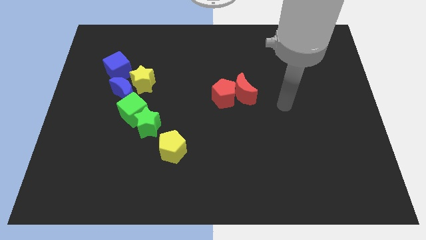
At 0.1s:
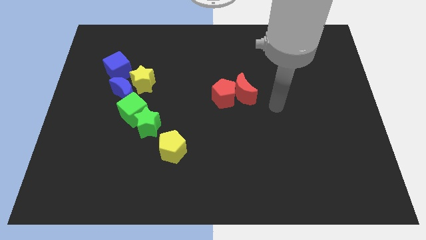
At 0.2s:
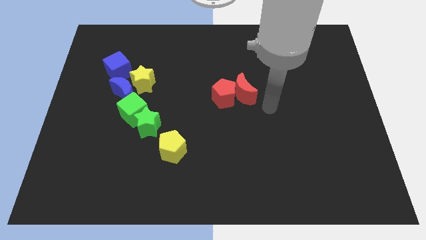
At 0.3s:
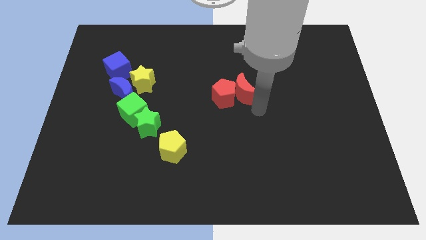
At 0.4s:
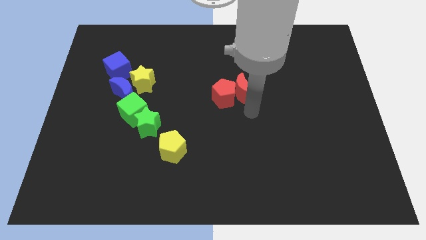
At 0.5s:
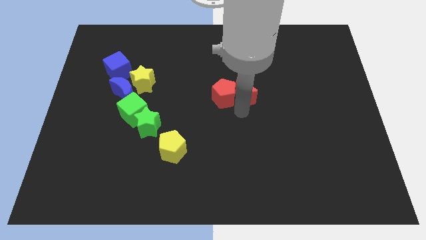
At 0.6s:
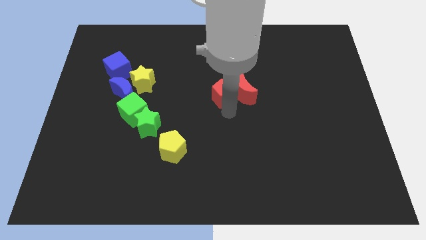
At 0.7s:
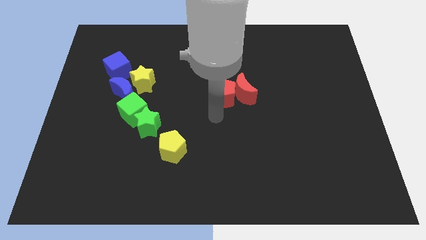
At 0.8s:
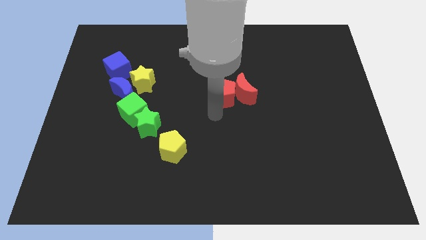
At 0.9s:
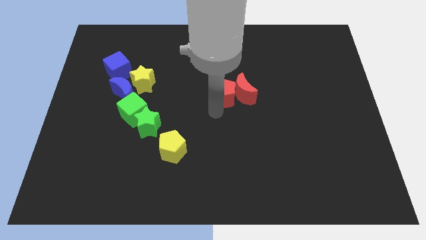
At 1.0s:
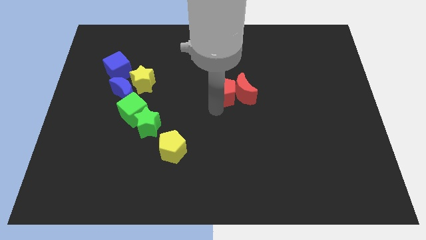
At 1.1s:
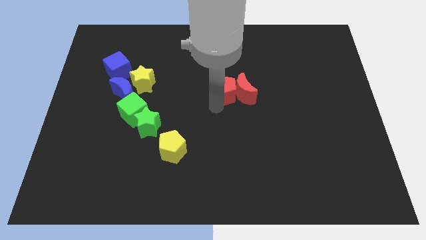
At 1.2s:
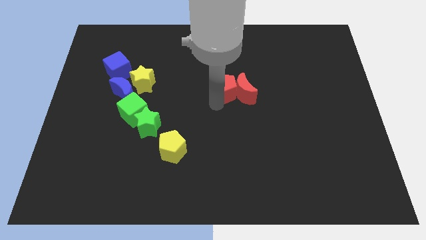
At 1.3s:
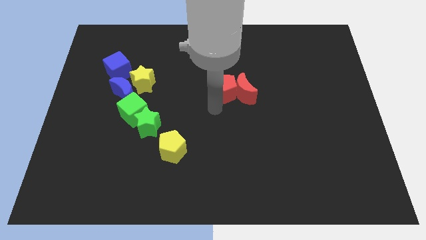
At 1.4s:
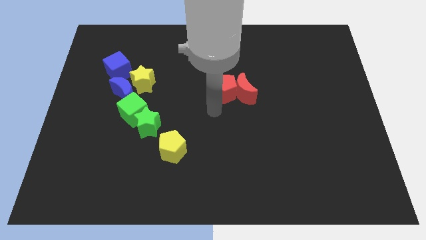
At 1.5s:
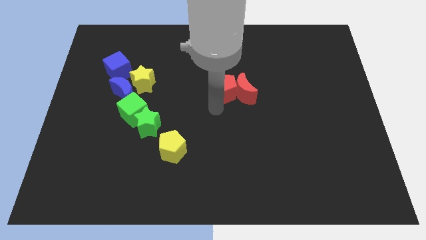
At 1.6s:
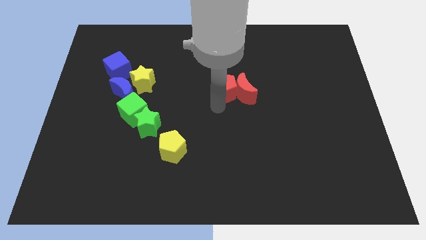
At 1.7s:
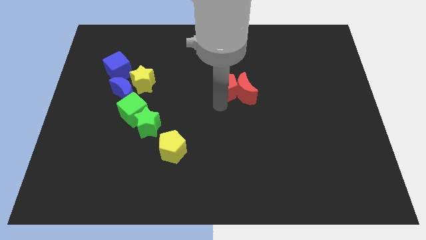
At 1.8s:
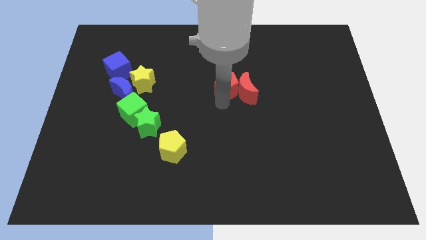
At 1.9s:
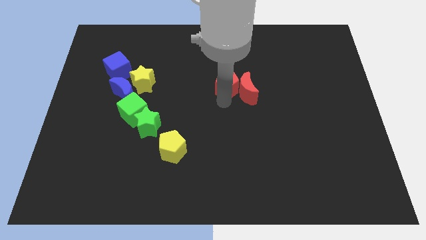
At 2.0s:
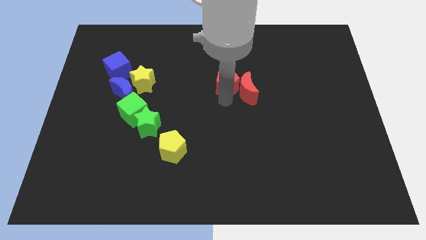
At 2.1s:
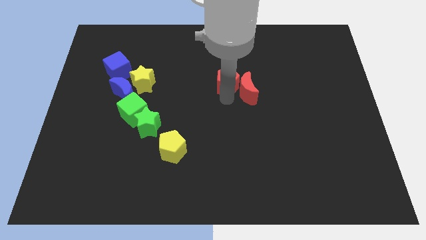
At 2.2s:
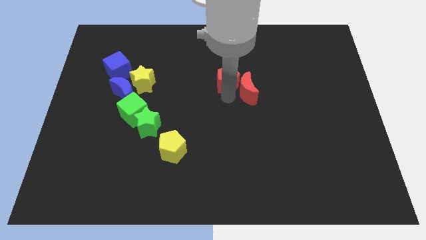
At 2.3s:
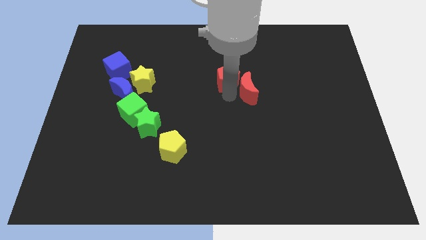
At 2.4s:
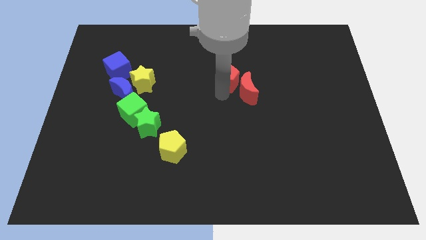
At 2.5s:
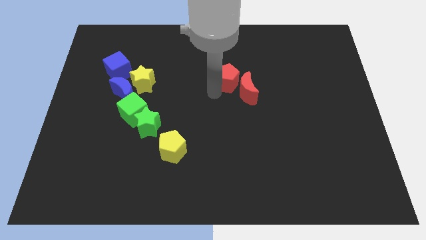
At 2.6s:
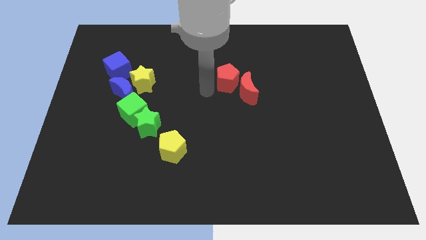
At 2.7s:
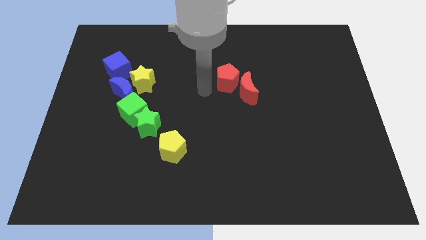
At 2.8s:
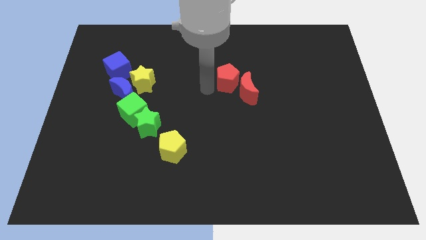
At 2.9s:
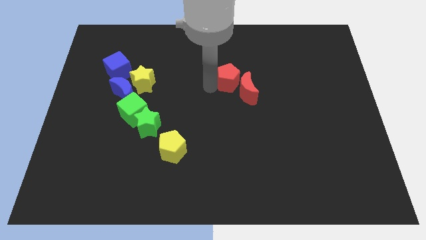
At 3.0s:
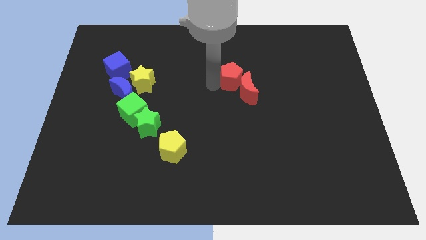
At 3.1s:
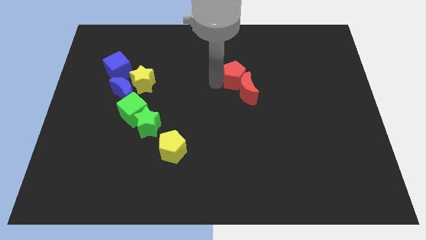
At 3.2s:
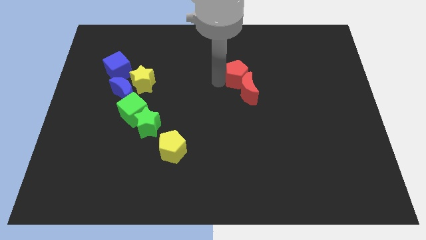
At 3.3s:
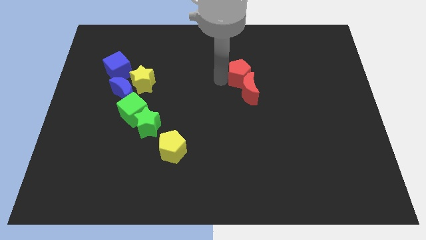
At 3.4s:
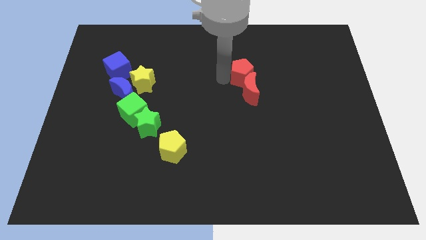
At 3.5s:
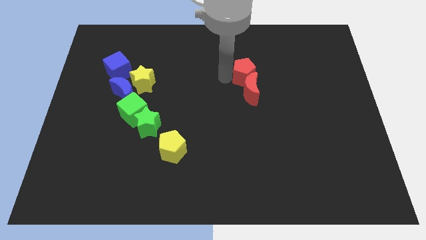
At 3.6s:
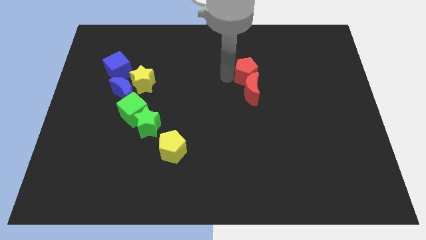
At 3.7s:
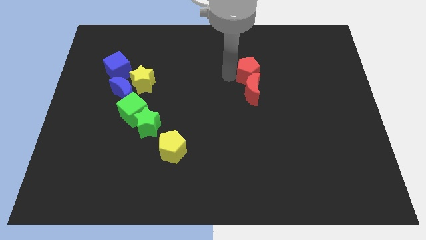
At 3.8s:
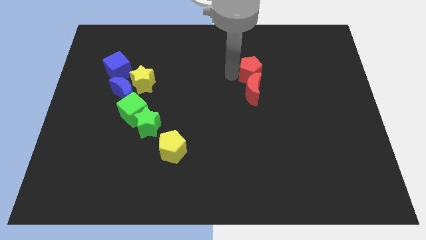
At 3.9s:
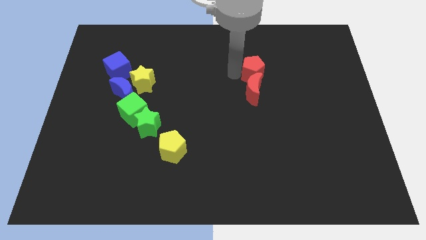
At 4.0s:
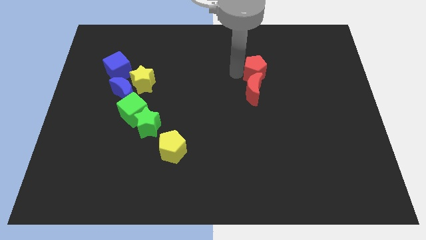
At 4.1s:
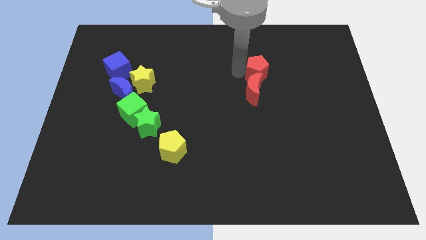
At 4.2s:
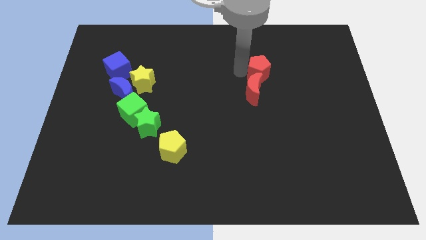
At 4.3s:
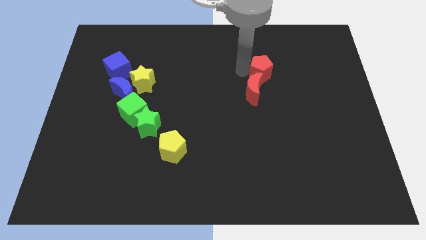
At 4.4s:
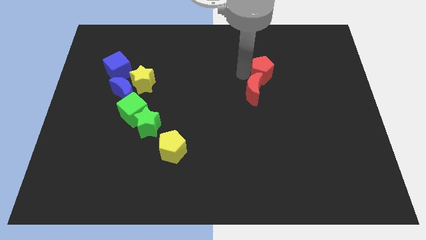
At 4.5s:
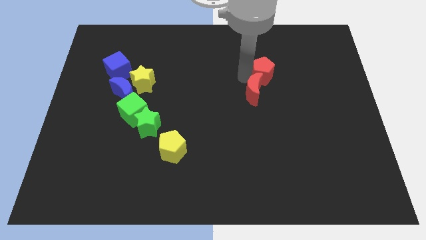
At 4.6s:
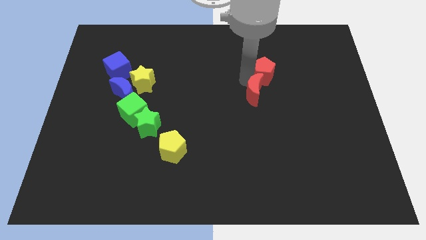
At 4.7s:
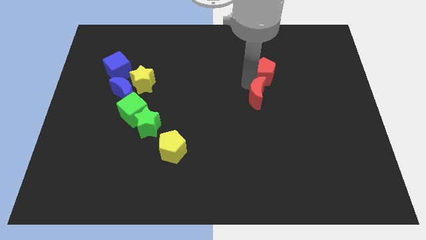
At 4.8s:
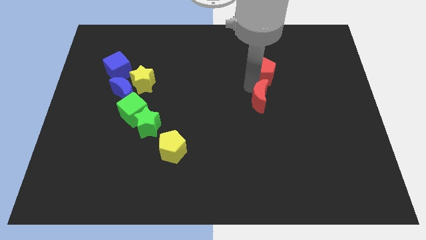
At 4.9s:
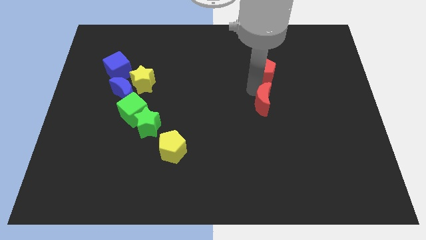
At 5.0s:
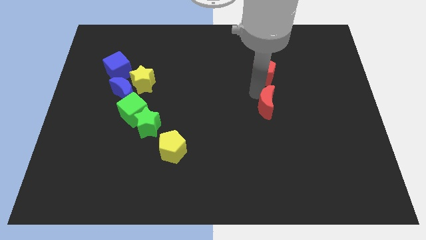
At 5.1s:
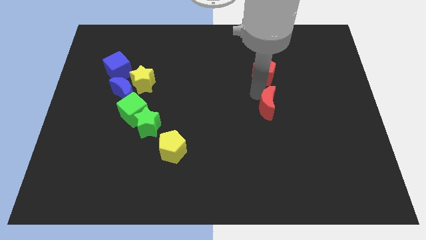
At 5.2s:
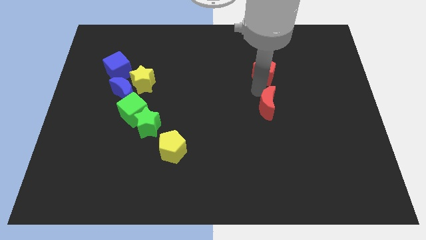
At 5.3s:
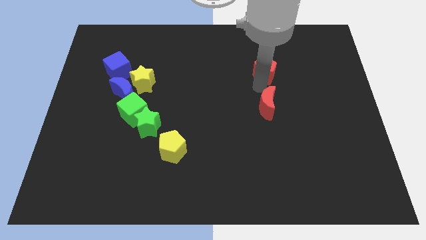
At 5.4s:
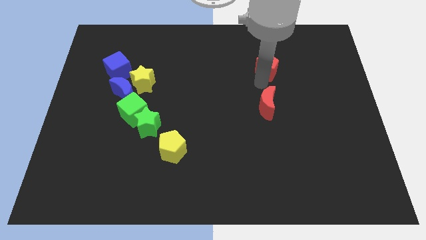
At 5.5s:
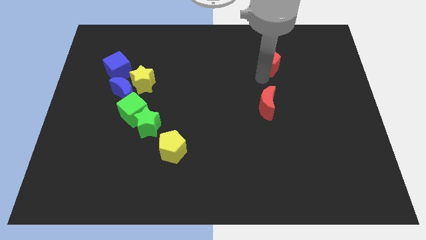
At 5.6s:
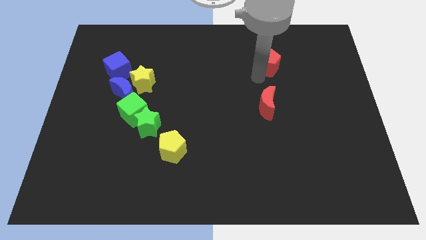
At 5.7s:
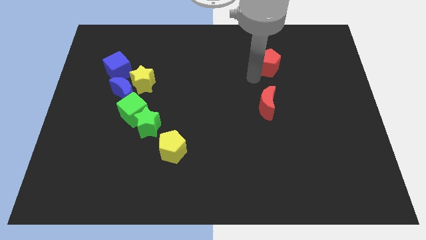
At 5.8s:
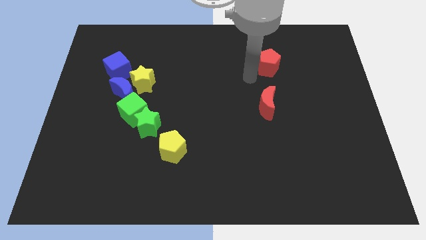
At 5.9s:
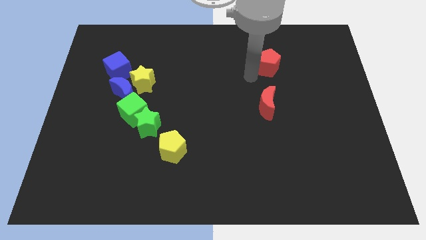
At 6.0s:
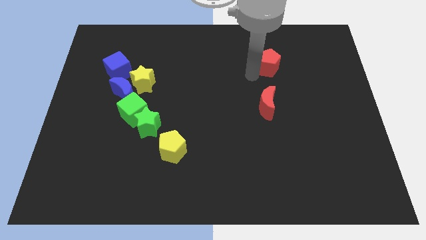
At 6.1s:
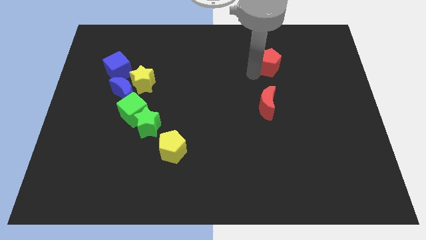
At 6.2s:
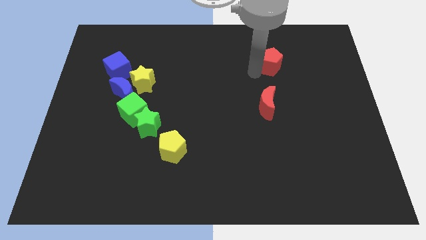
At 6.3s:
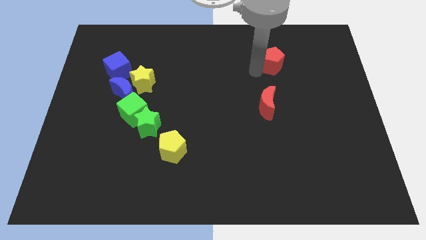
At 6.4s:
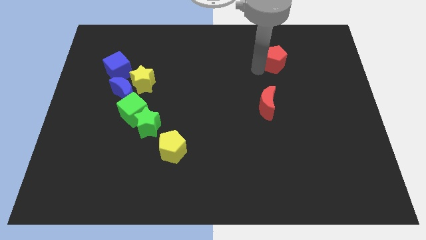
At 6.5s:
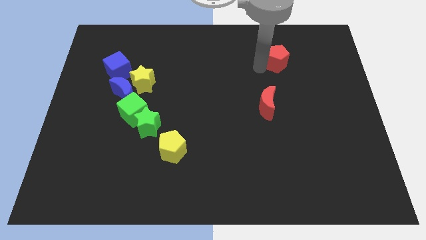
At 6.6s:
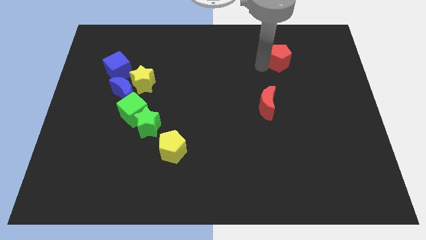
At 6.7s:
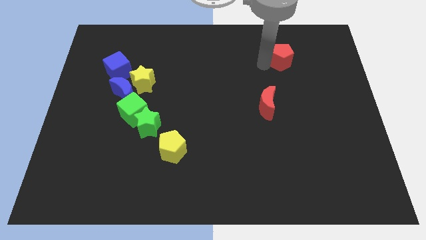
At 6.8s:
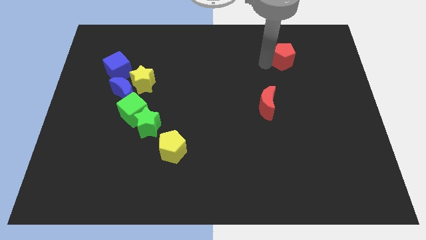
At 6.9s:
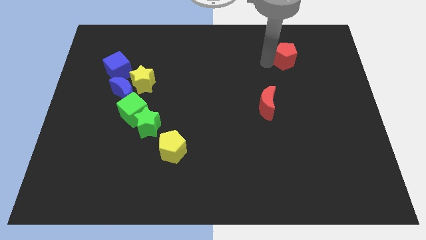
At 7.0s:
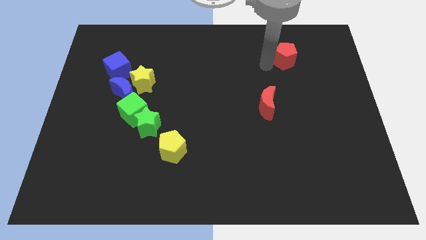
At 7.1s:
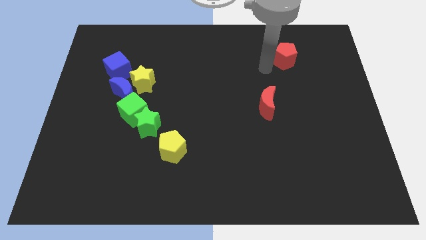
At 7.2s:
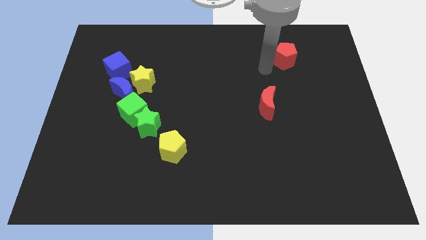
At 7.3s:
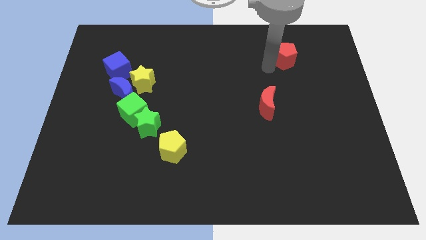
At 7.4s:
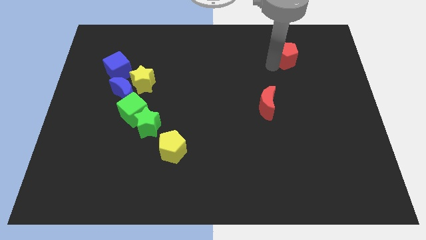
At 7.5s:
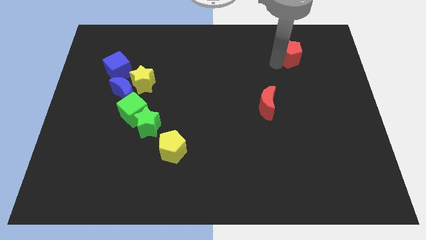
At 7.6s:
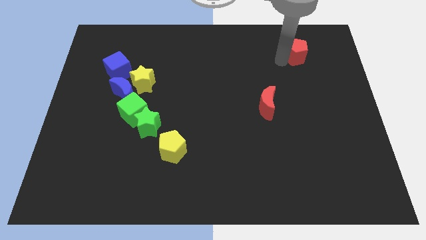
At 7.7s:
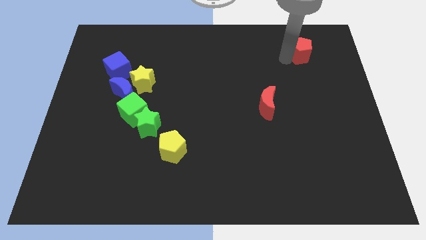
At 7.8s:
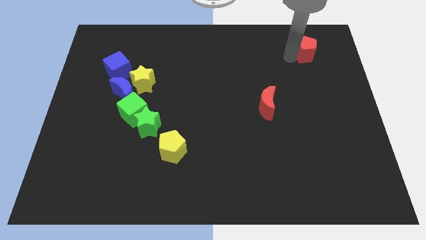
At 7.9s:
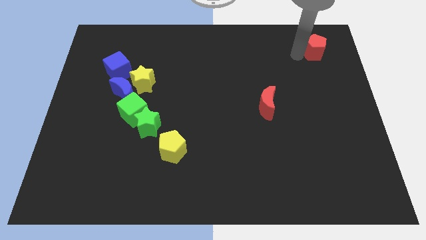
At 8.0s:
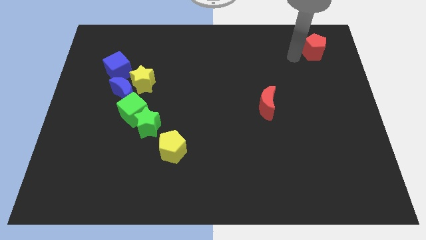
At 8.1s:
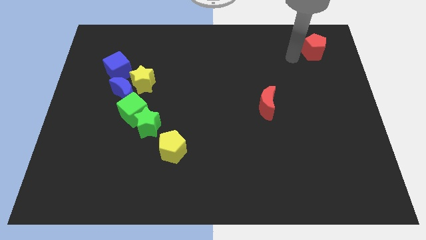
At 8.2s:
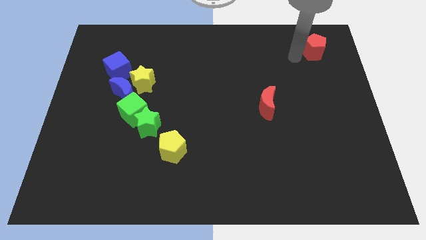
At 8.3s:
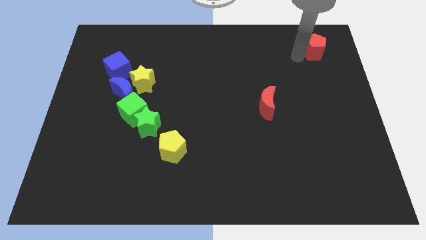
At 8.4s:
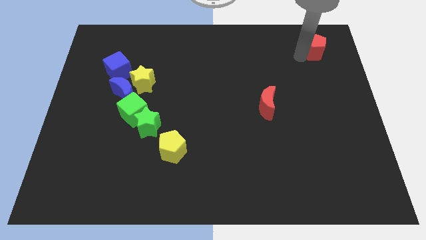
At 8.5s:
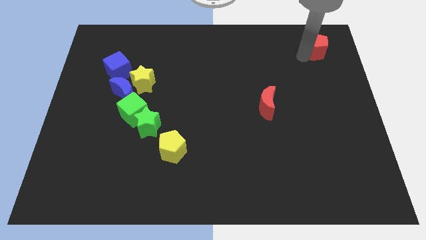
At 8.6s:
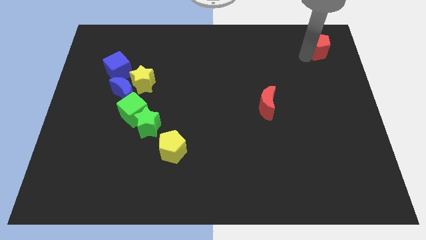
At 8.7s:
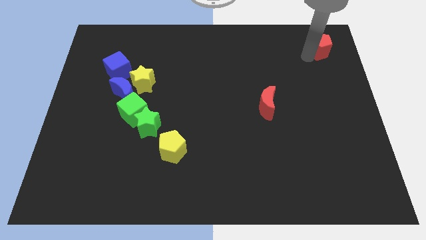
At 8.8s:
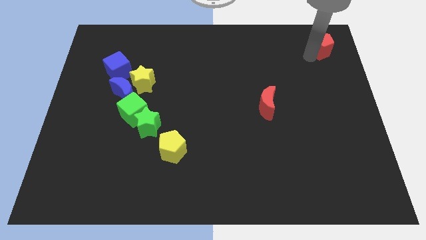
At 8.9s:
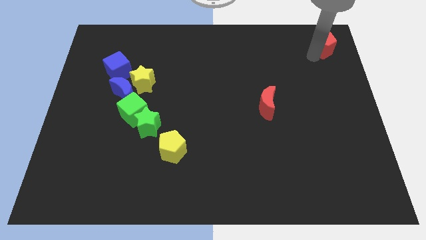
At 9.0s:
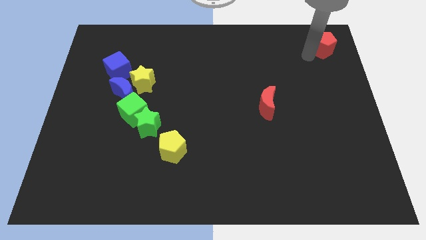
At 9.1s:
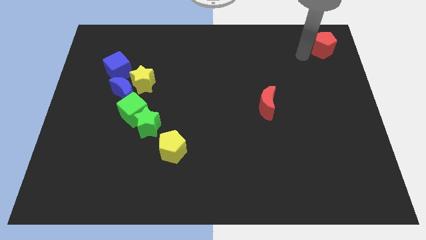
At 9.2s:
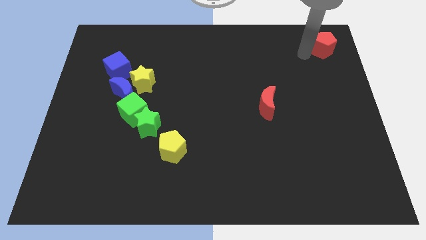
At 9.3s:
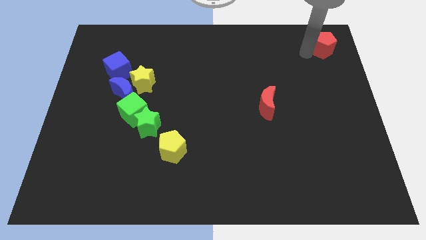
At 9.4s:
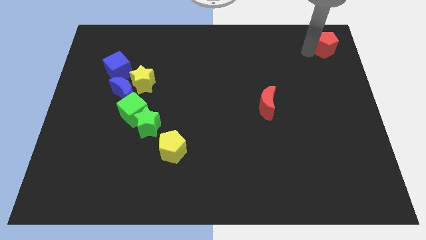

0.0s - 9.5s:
move the red pentagon to the upper right corner
